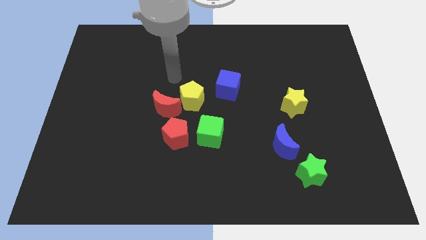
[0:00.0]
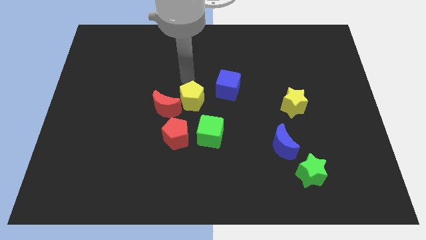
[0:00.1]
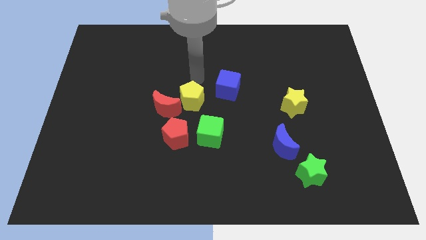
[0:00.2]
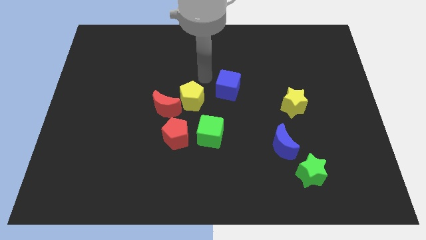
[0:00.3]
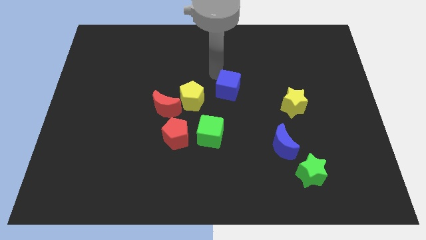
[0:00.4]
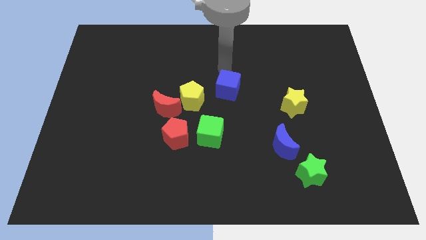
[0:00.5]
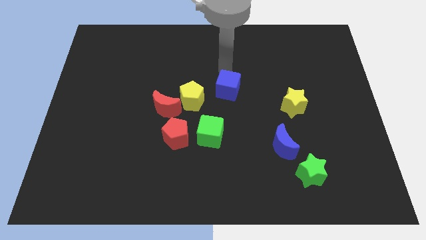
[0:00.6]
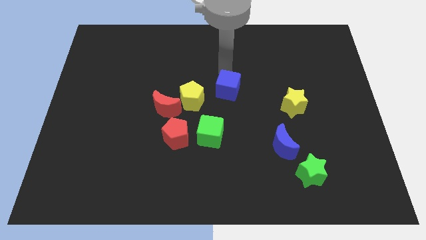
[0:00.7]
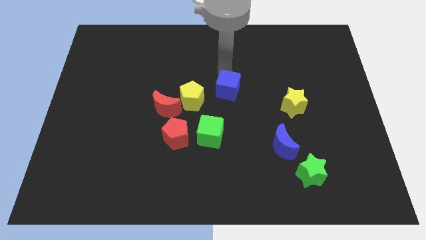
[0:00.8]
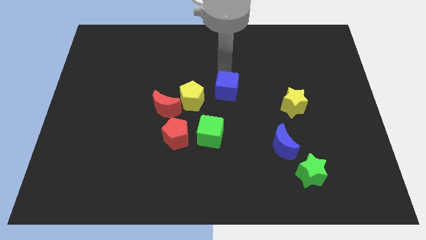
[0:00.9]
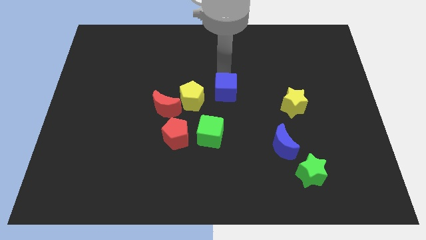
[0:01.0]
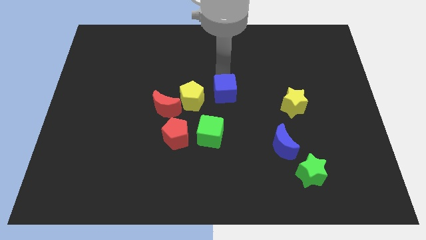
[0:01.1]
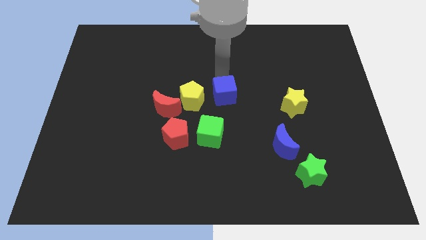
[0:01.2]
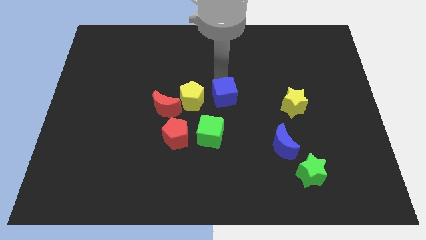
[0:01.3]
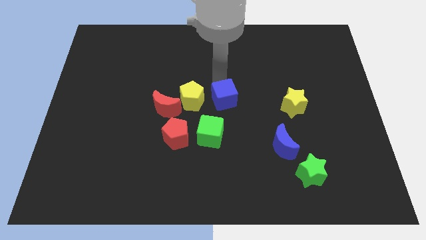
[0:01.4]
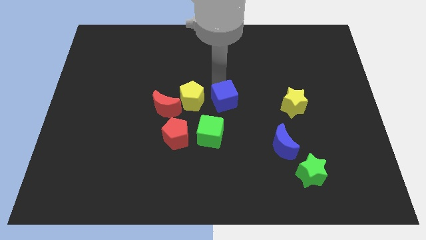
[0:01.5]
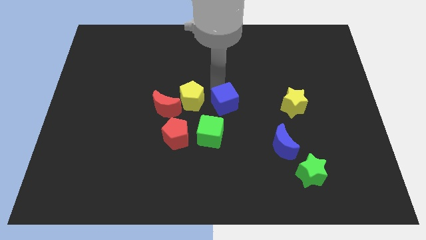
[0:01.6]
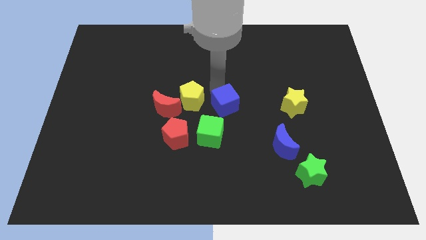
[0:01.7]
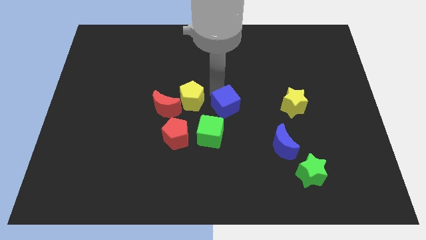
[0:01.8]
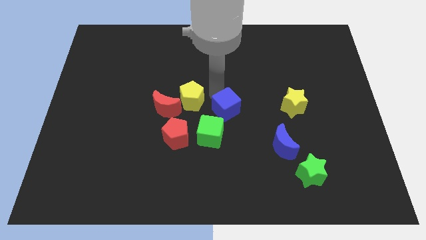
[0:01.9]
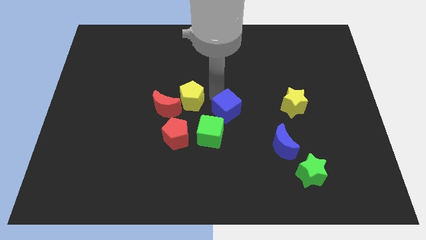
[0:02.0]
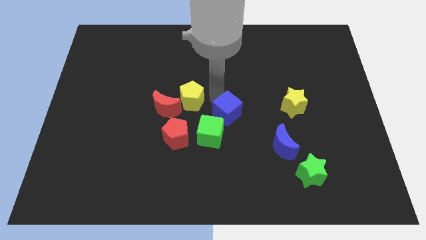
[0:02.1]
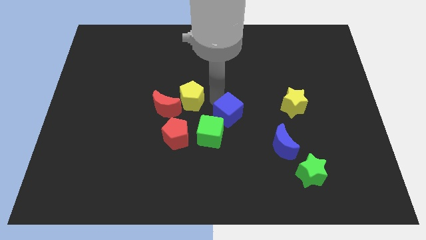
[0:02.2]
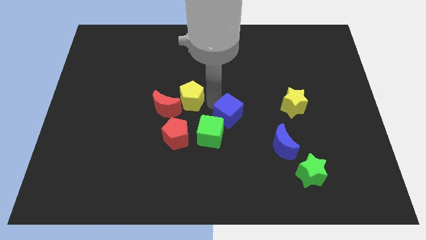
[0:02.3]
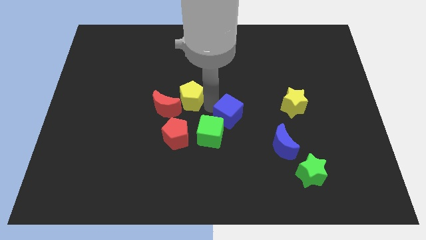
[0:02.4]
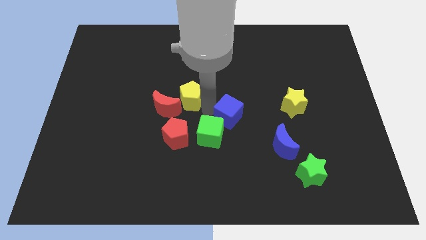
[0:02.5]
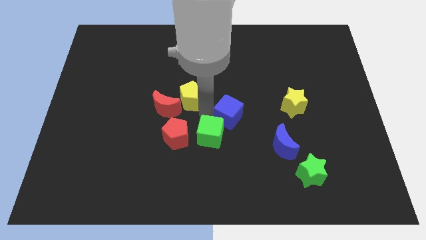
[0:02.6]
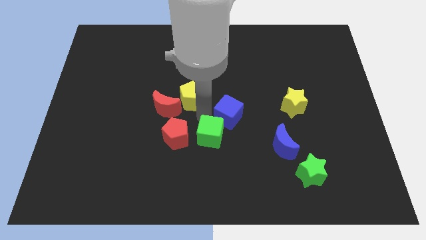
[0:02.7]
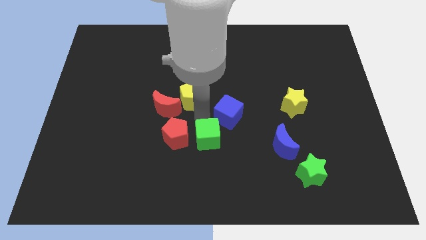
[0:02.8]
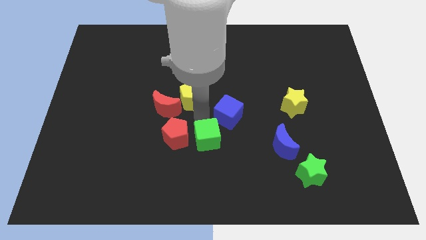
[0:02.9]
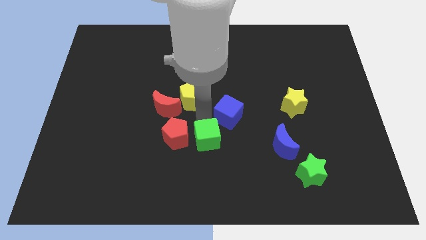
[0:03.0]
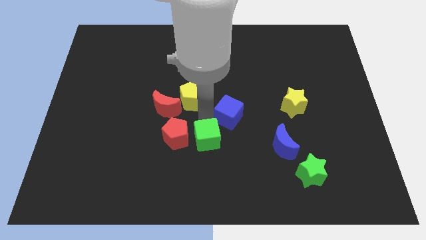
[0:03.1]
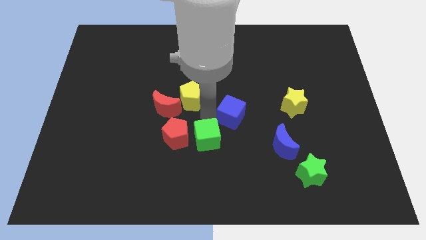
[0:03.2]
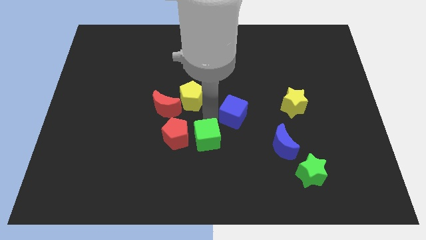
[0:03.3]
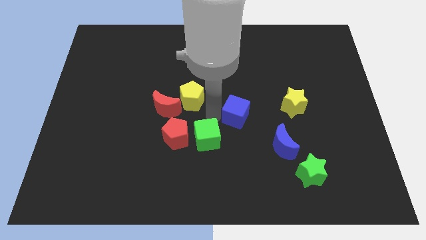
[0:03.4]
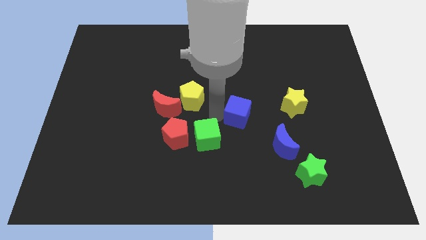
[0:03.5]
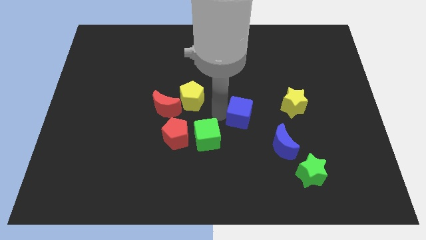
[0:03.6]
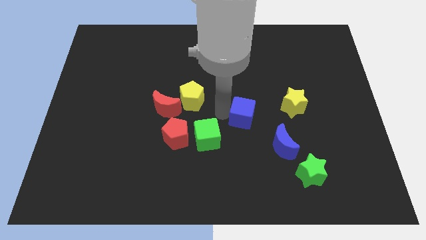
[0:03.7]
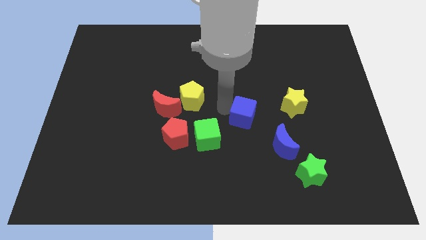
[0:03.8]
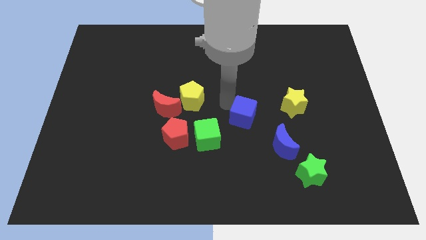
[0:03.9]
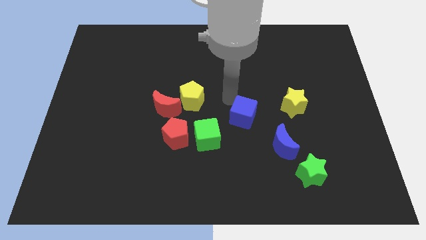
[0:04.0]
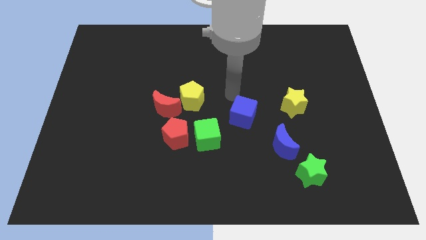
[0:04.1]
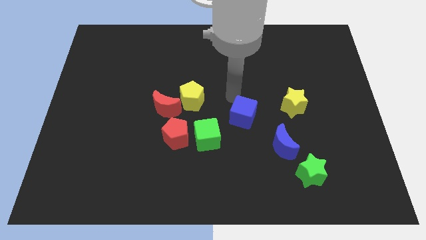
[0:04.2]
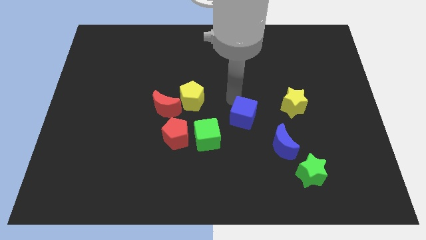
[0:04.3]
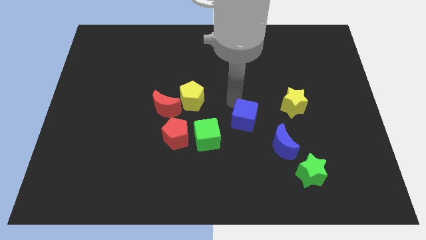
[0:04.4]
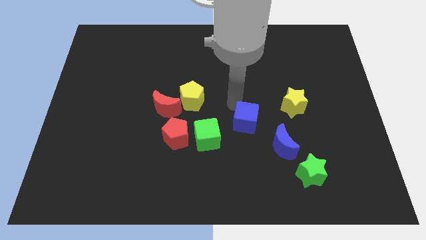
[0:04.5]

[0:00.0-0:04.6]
move the blue cube just right of the green cube

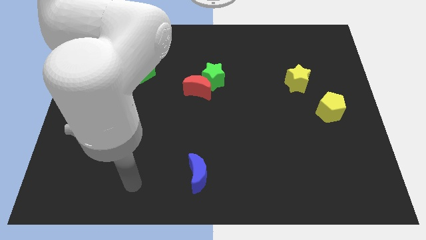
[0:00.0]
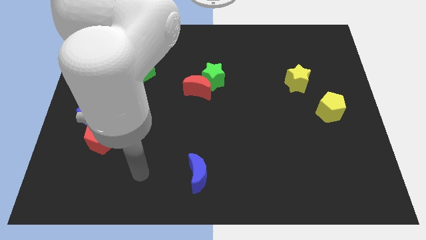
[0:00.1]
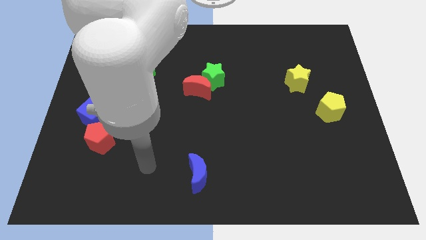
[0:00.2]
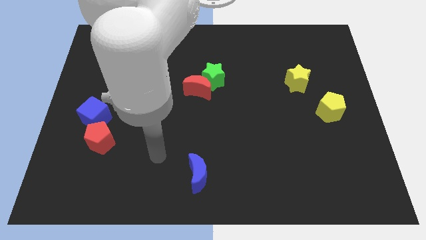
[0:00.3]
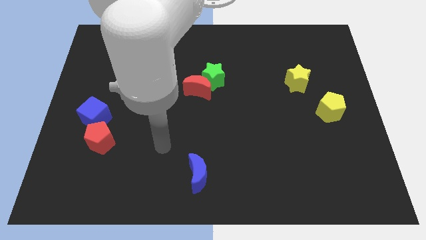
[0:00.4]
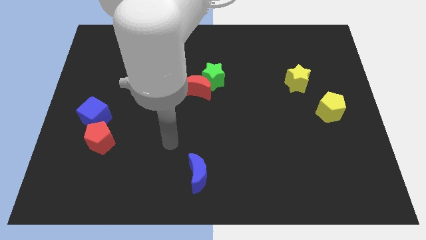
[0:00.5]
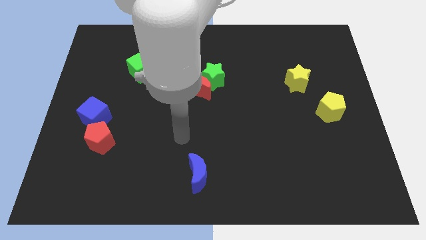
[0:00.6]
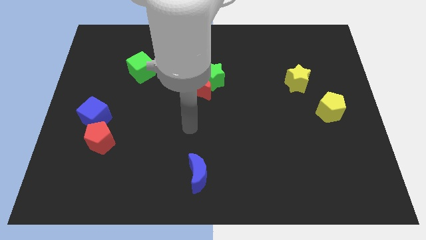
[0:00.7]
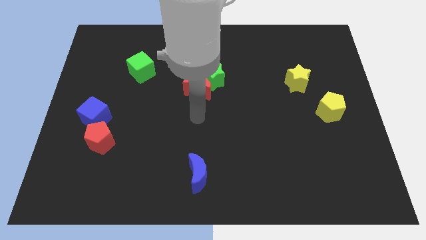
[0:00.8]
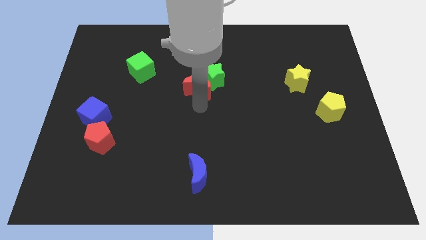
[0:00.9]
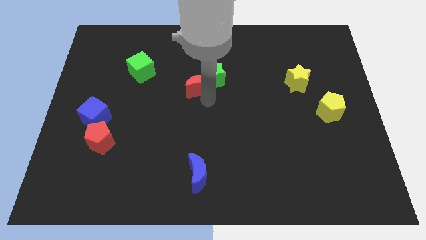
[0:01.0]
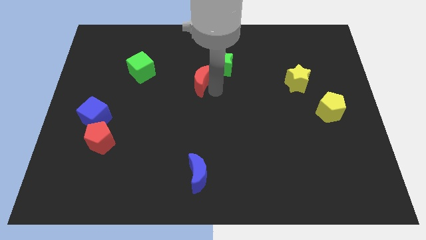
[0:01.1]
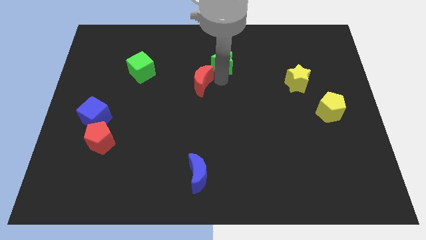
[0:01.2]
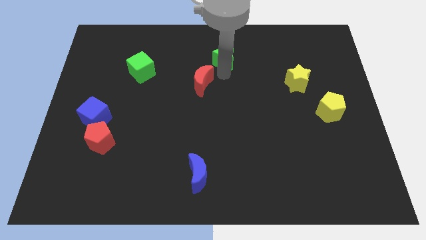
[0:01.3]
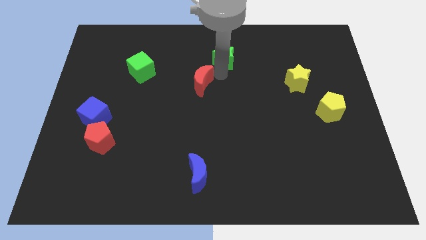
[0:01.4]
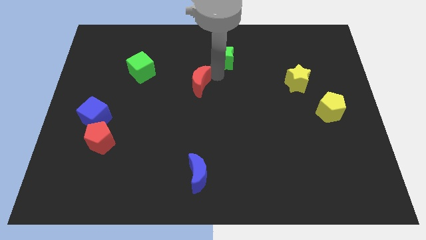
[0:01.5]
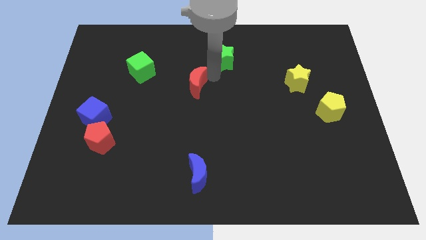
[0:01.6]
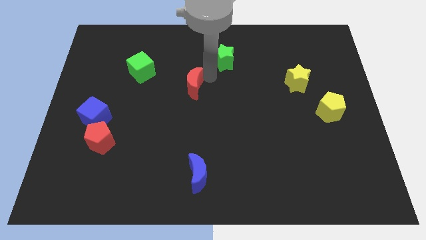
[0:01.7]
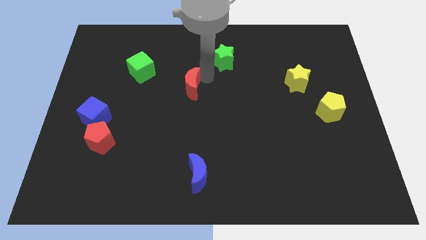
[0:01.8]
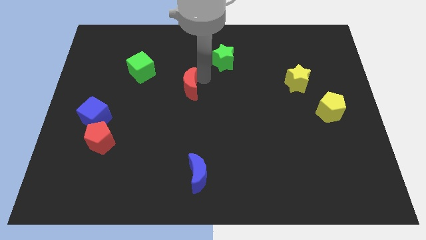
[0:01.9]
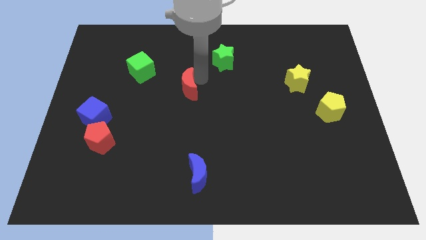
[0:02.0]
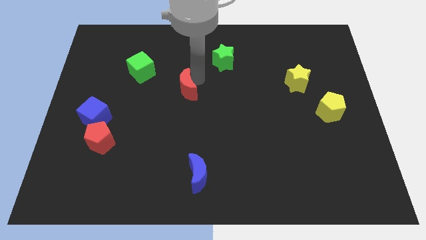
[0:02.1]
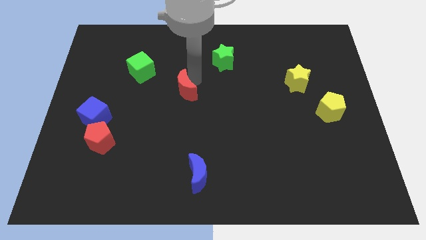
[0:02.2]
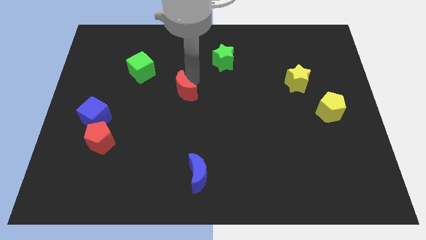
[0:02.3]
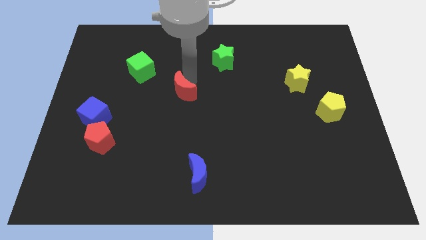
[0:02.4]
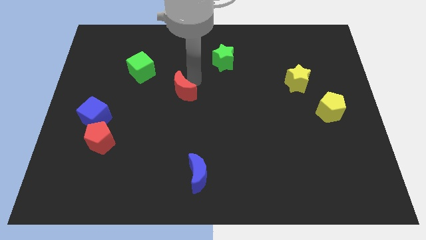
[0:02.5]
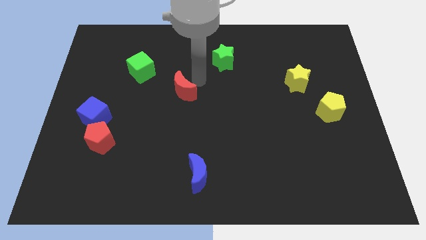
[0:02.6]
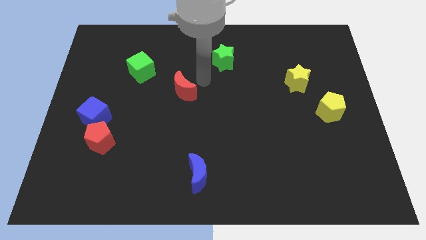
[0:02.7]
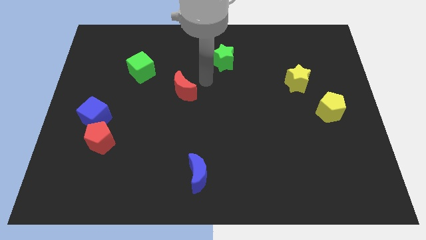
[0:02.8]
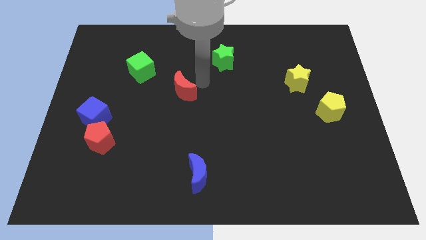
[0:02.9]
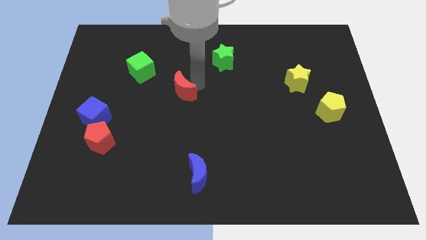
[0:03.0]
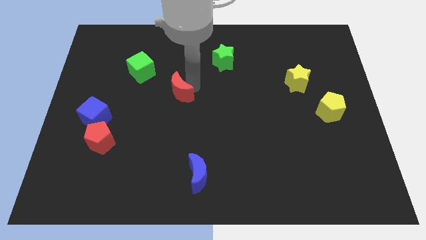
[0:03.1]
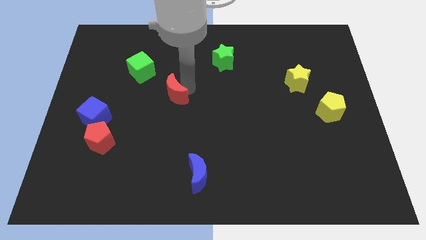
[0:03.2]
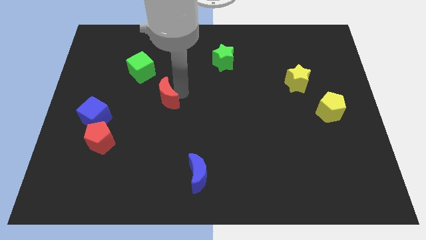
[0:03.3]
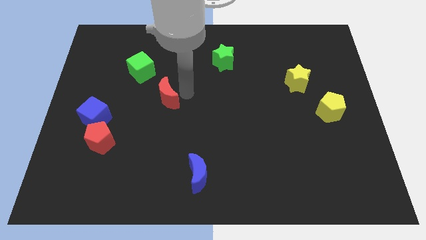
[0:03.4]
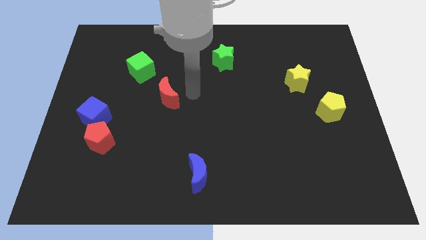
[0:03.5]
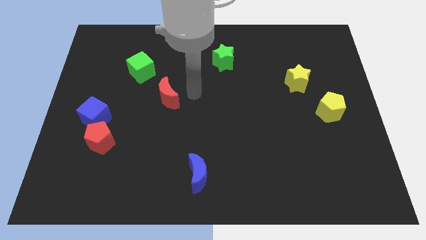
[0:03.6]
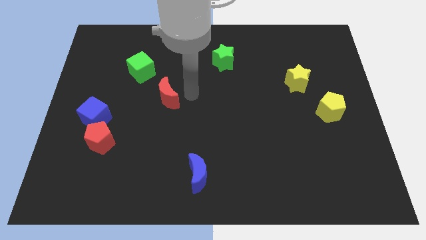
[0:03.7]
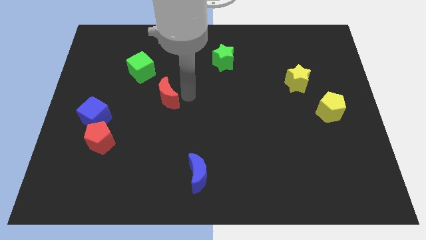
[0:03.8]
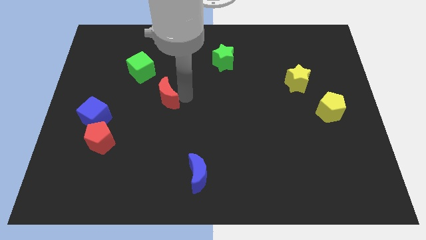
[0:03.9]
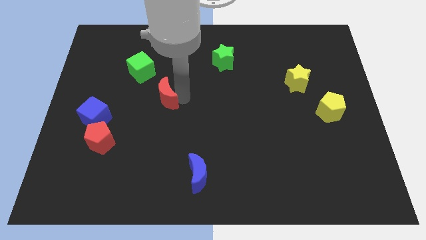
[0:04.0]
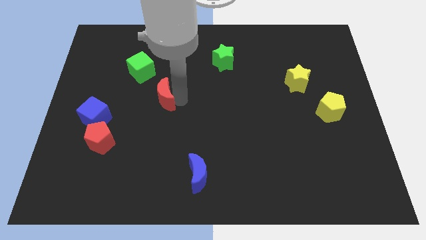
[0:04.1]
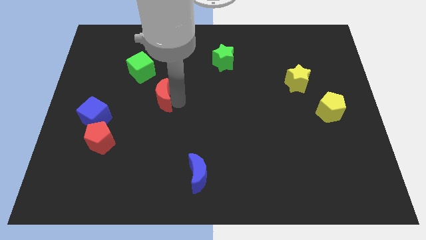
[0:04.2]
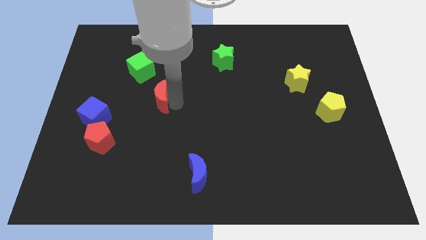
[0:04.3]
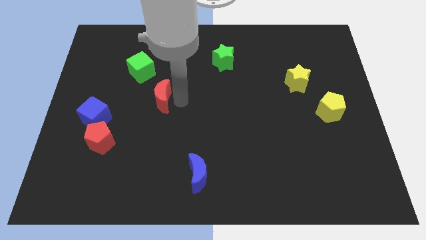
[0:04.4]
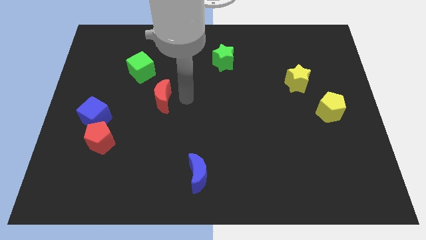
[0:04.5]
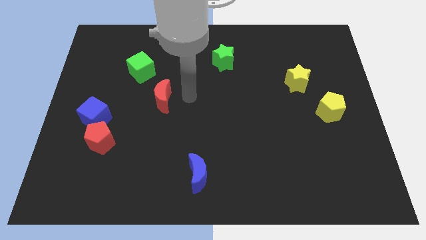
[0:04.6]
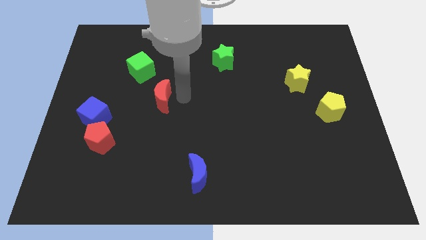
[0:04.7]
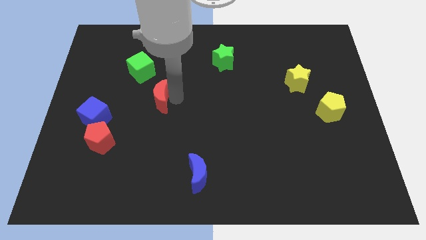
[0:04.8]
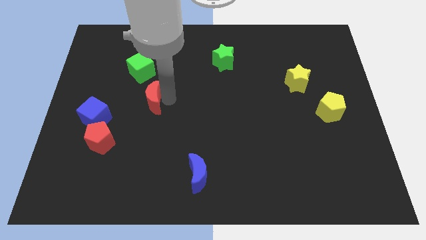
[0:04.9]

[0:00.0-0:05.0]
slide the red moon to the bottom side of the green cube
